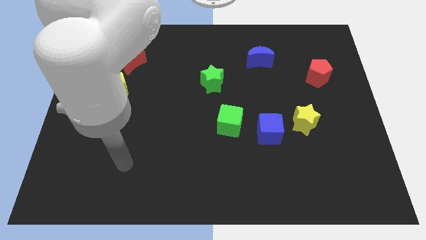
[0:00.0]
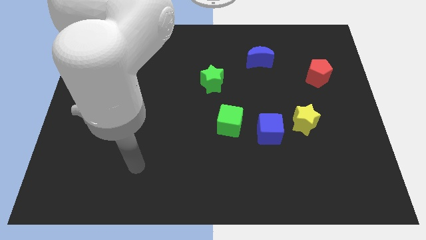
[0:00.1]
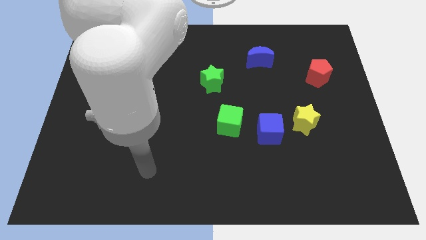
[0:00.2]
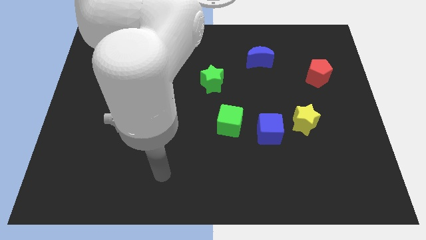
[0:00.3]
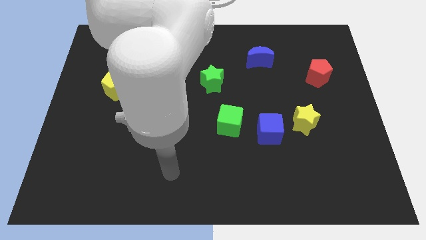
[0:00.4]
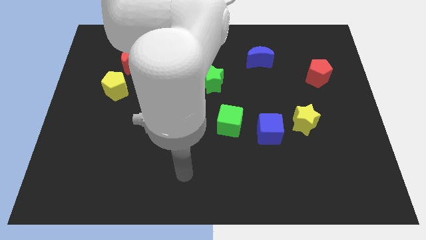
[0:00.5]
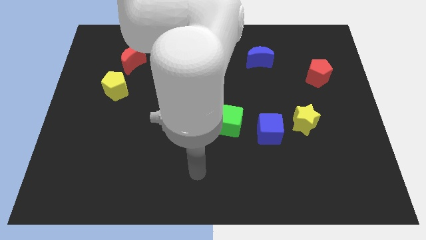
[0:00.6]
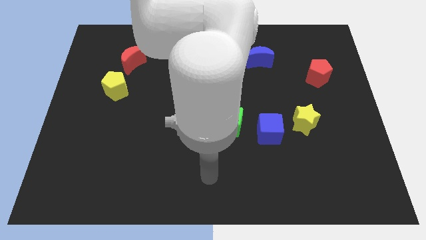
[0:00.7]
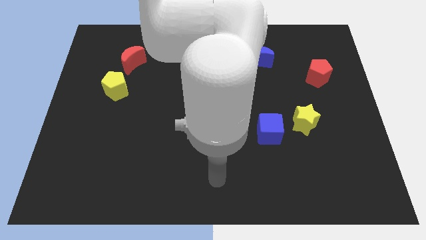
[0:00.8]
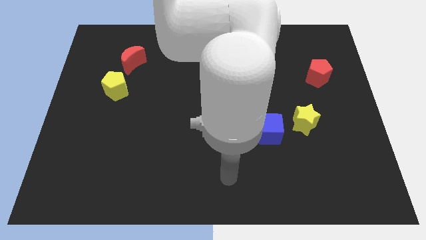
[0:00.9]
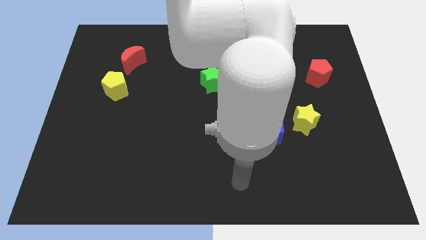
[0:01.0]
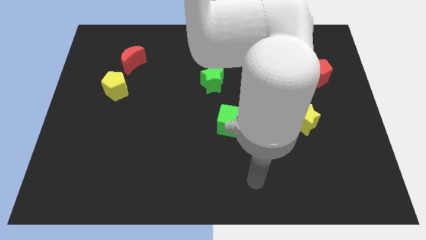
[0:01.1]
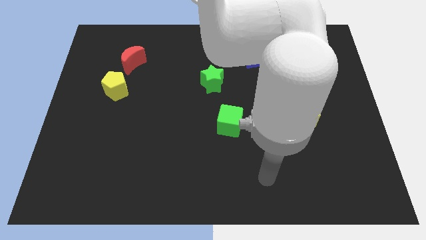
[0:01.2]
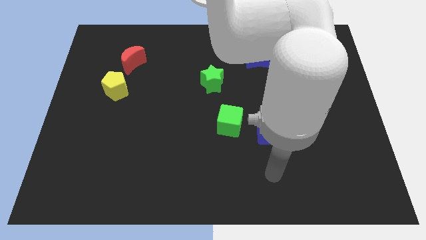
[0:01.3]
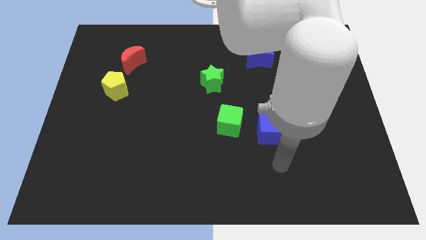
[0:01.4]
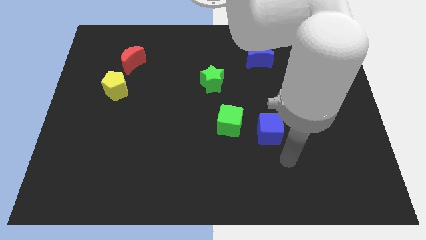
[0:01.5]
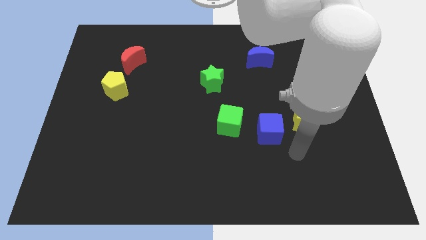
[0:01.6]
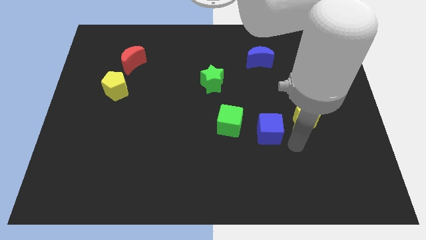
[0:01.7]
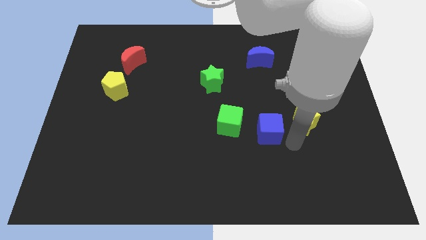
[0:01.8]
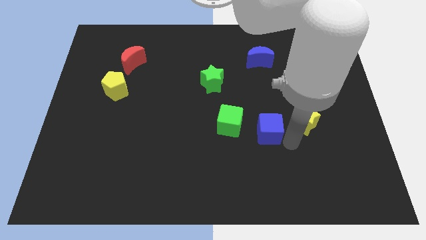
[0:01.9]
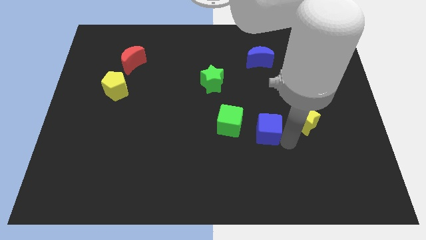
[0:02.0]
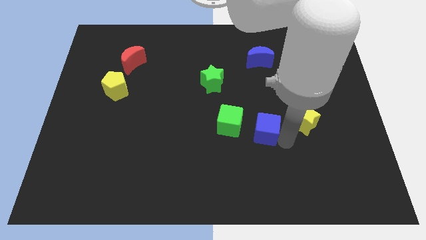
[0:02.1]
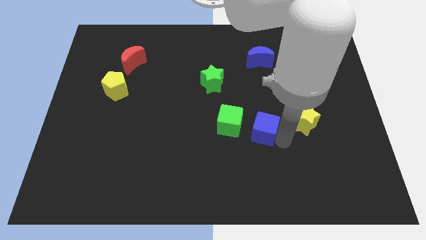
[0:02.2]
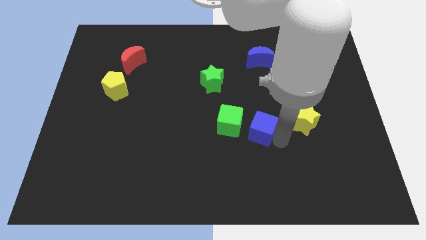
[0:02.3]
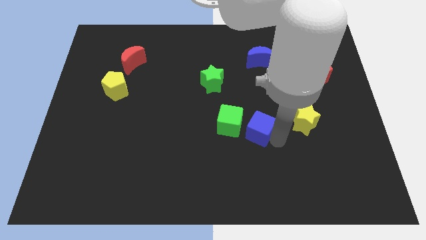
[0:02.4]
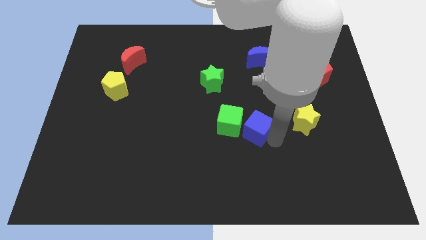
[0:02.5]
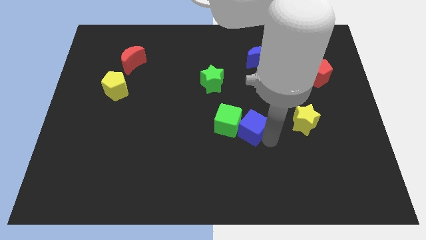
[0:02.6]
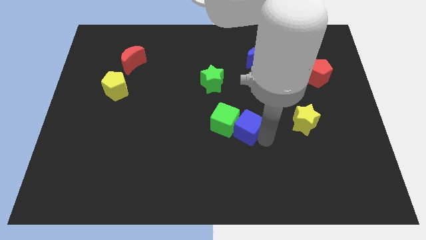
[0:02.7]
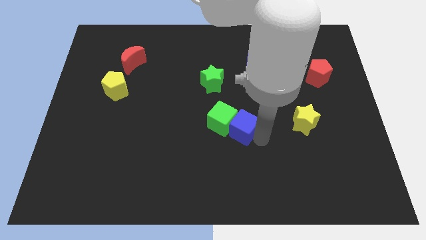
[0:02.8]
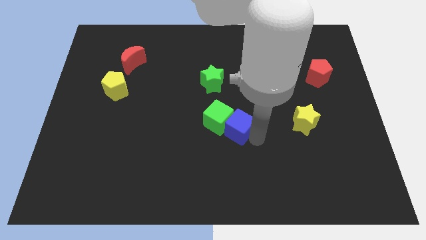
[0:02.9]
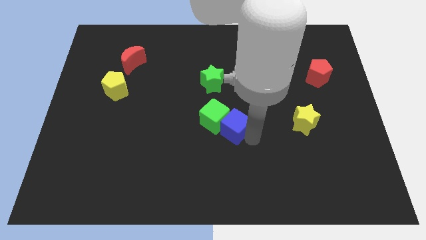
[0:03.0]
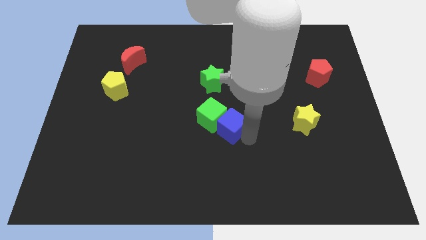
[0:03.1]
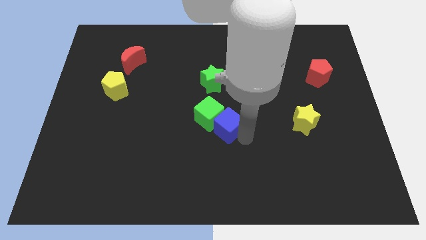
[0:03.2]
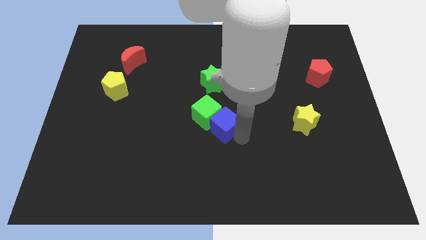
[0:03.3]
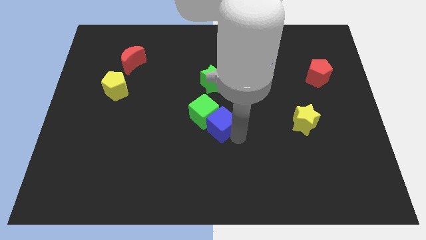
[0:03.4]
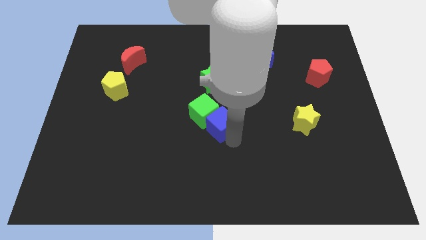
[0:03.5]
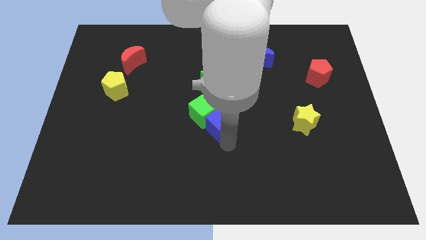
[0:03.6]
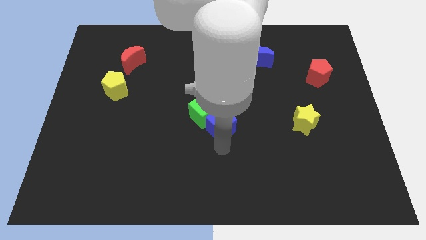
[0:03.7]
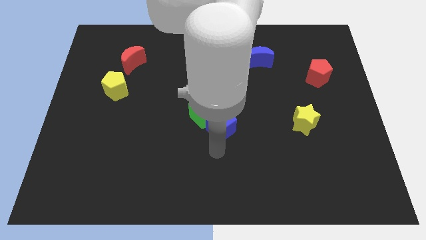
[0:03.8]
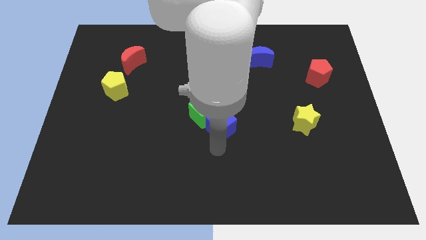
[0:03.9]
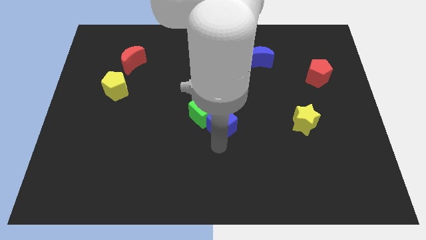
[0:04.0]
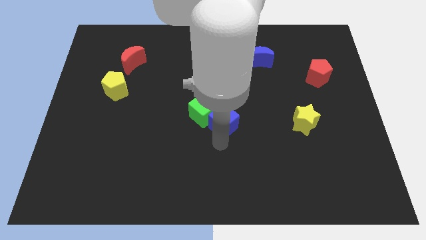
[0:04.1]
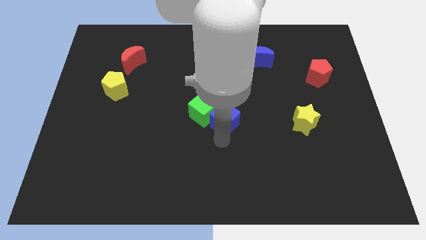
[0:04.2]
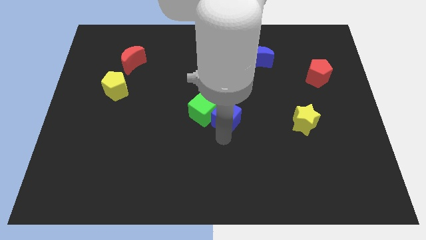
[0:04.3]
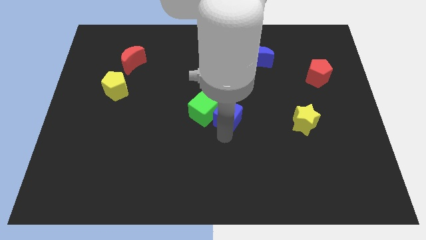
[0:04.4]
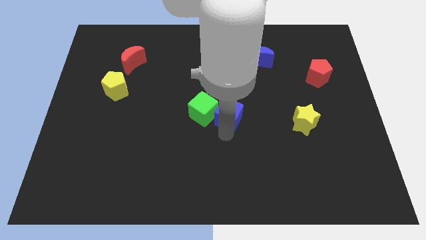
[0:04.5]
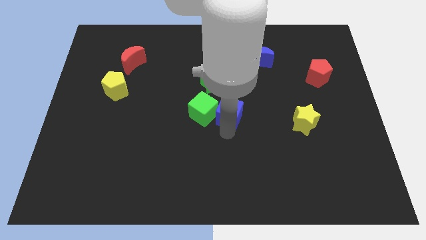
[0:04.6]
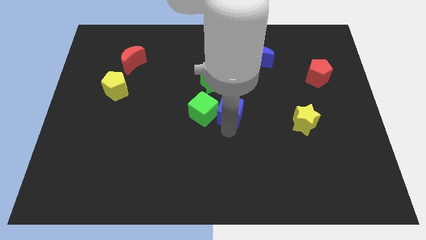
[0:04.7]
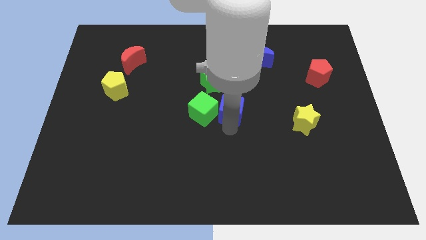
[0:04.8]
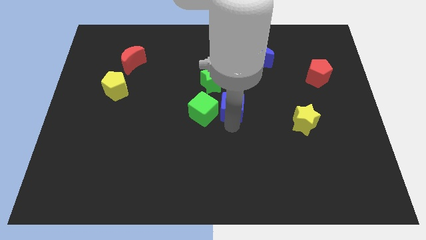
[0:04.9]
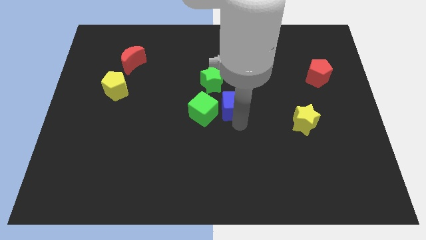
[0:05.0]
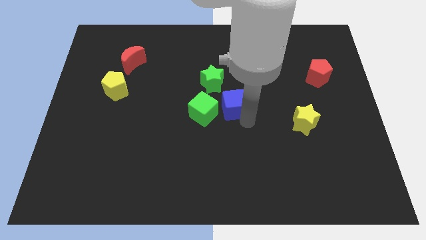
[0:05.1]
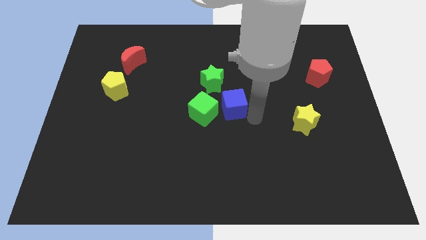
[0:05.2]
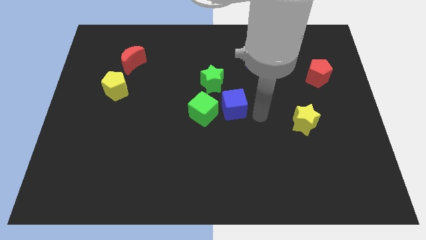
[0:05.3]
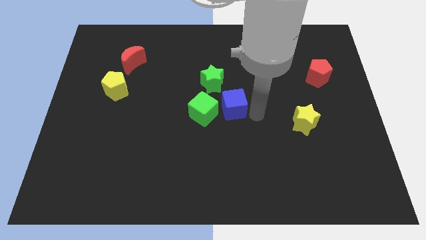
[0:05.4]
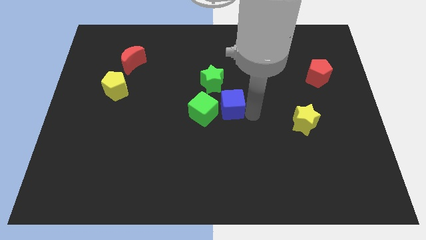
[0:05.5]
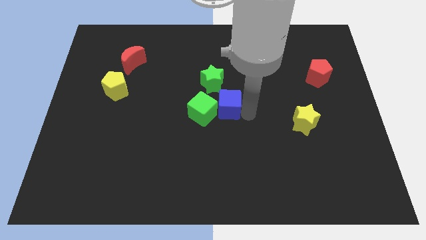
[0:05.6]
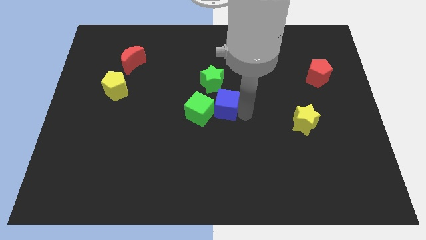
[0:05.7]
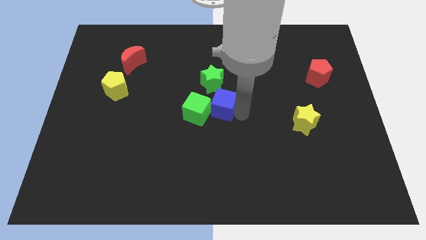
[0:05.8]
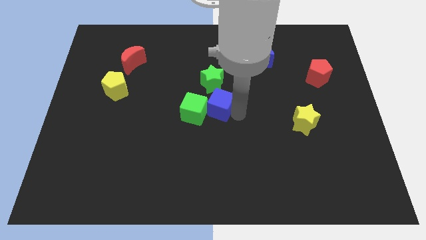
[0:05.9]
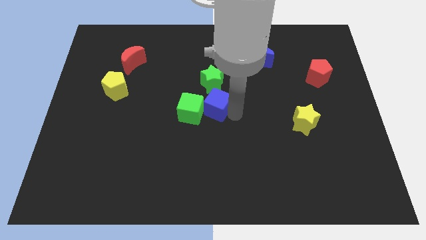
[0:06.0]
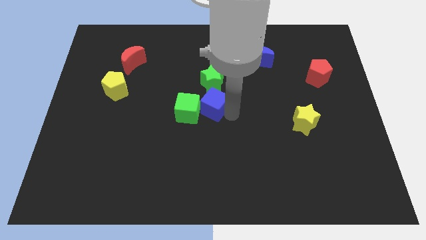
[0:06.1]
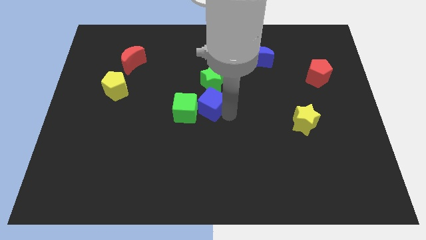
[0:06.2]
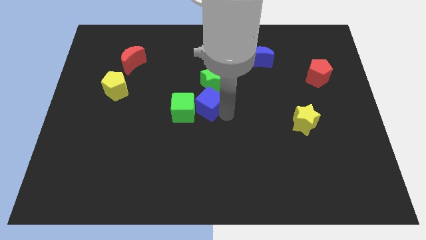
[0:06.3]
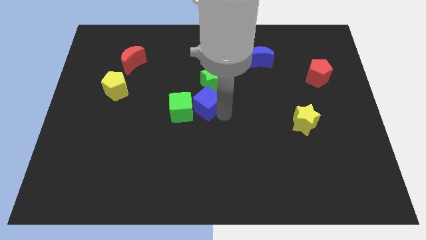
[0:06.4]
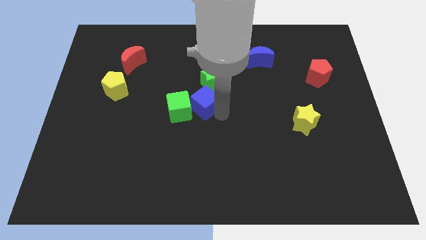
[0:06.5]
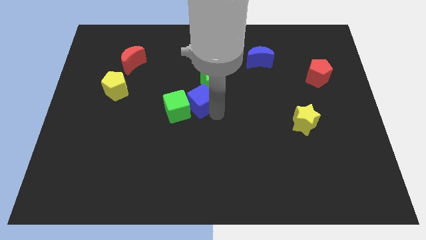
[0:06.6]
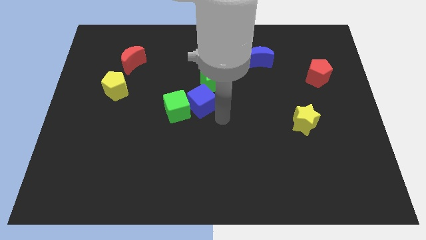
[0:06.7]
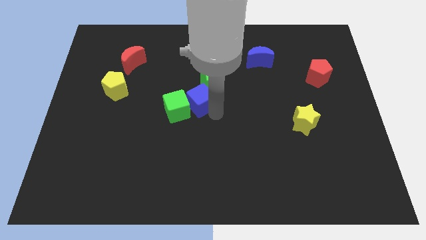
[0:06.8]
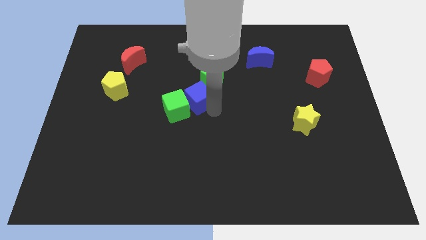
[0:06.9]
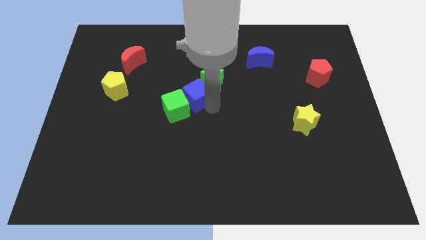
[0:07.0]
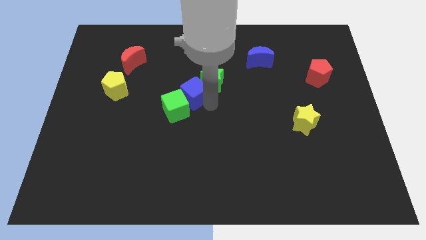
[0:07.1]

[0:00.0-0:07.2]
move the blue cube just left of the green star
